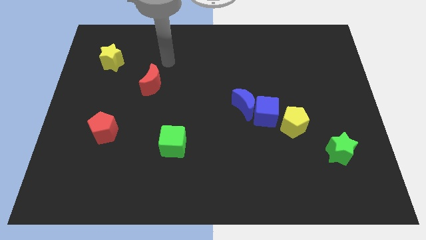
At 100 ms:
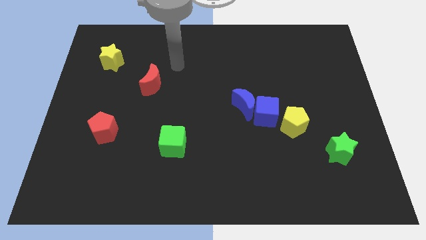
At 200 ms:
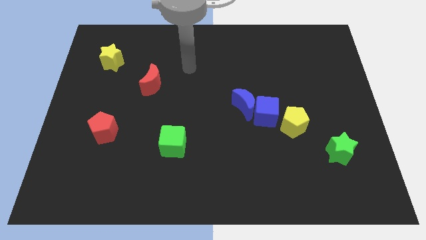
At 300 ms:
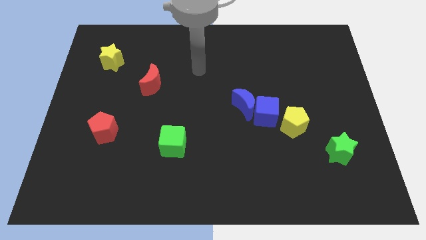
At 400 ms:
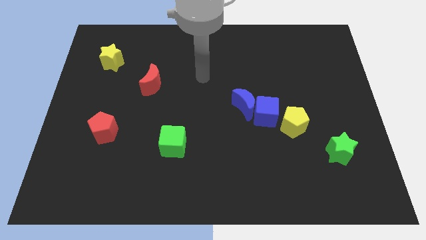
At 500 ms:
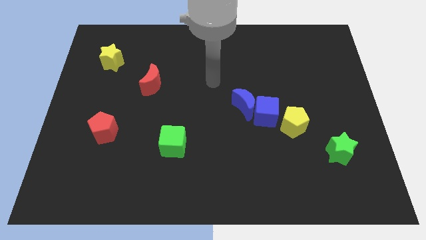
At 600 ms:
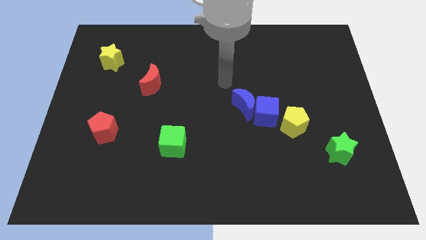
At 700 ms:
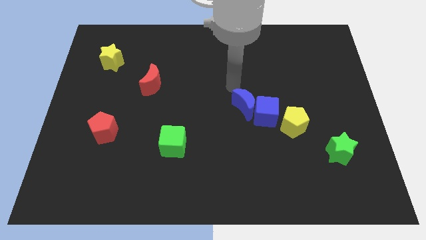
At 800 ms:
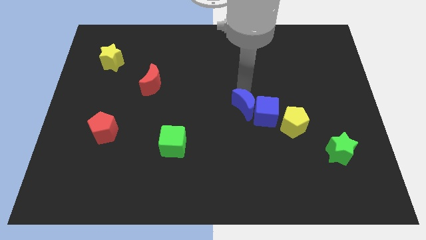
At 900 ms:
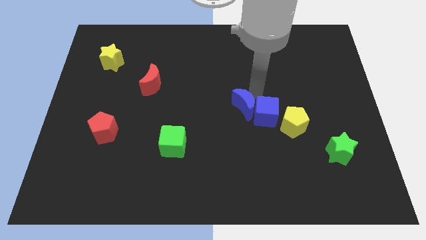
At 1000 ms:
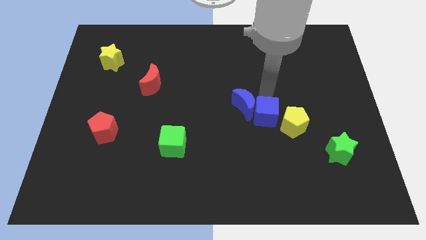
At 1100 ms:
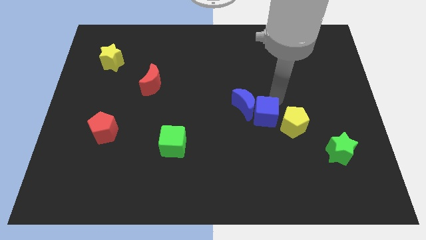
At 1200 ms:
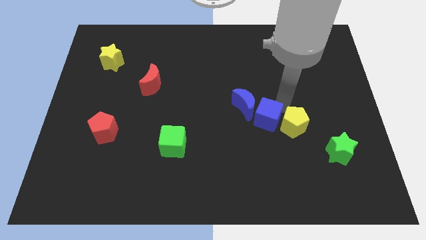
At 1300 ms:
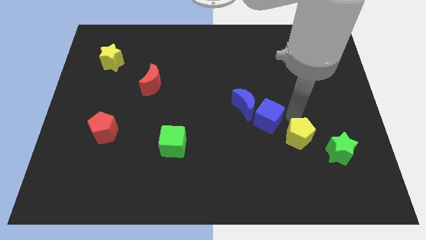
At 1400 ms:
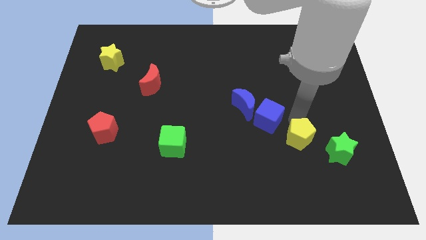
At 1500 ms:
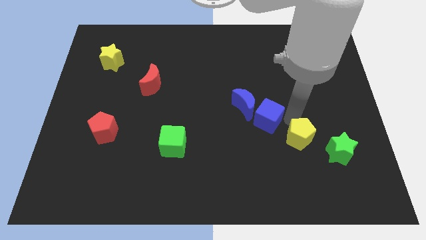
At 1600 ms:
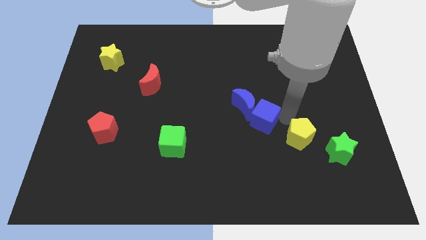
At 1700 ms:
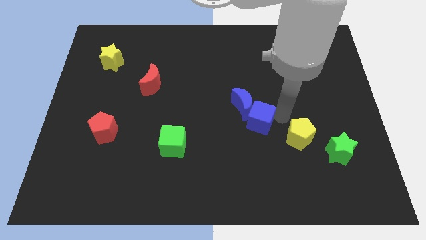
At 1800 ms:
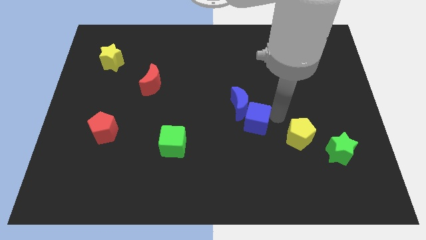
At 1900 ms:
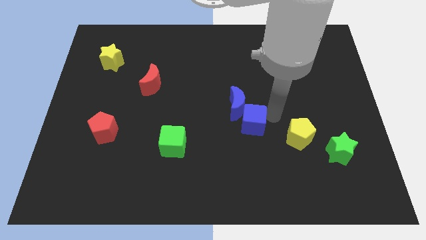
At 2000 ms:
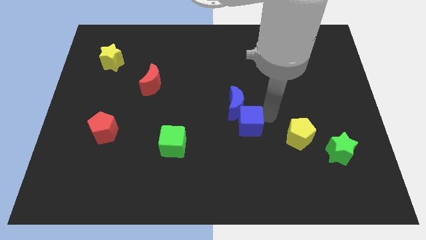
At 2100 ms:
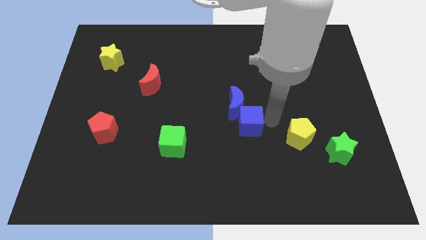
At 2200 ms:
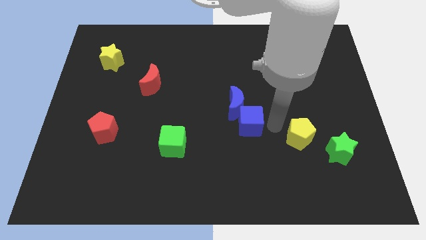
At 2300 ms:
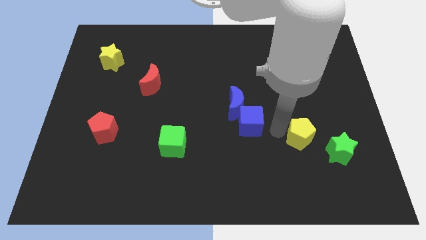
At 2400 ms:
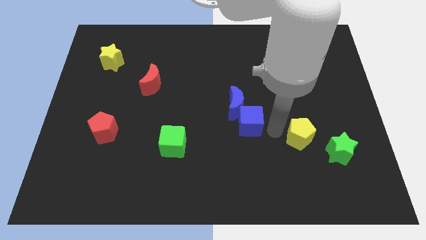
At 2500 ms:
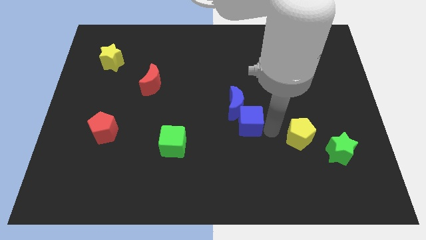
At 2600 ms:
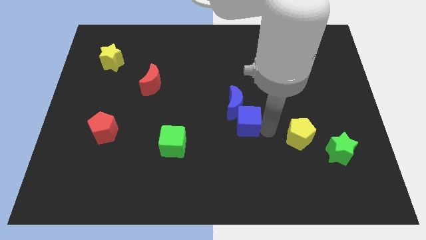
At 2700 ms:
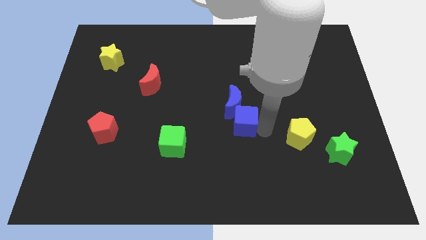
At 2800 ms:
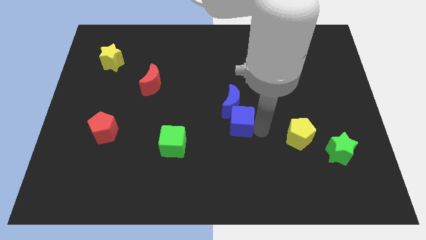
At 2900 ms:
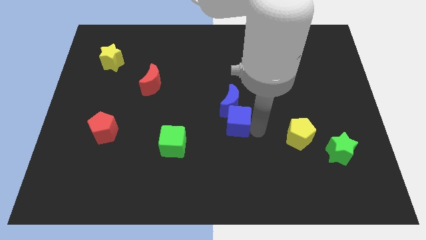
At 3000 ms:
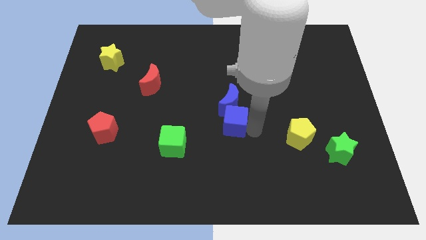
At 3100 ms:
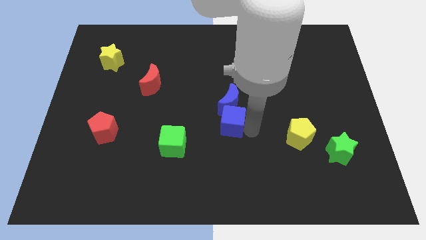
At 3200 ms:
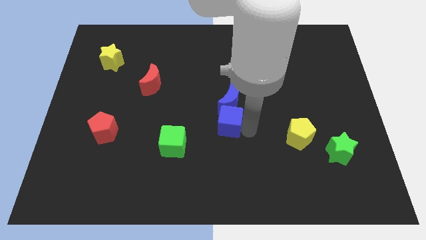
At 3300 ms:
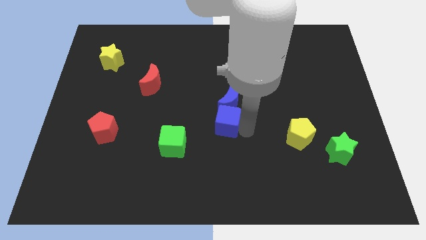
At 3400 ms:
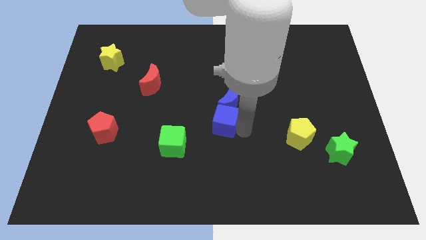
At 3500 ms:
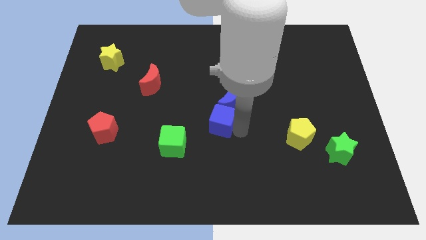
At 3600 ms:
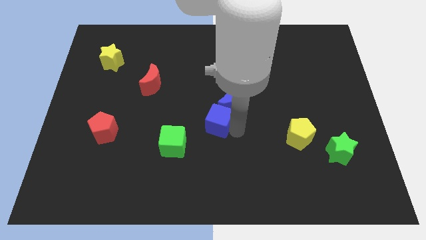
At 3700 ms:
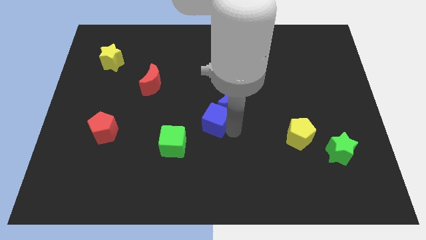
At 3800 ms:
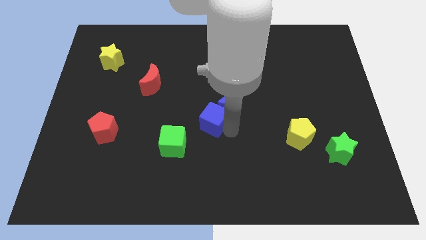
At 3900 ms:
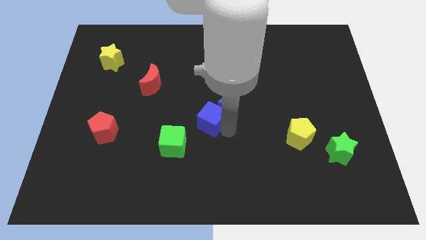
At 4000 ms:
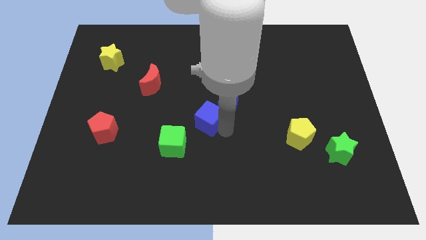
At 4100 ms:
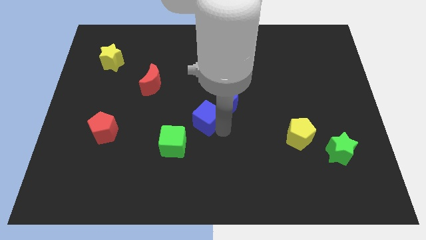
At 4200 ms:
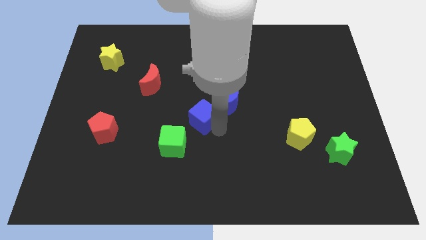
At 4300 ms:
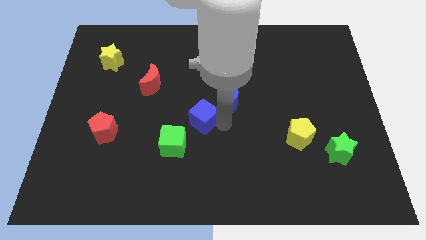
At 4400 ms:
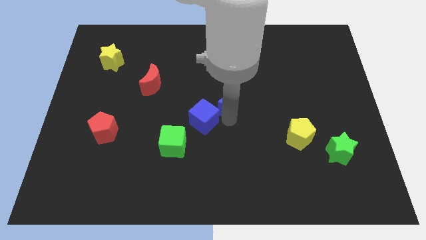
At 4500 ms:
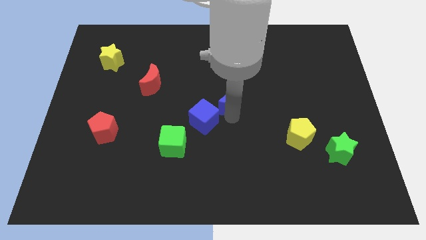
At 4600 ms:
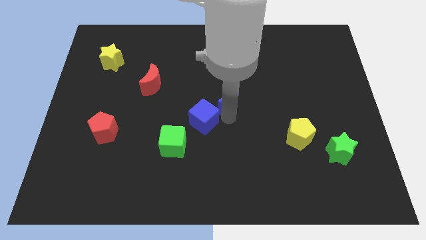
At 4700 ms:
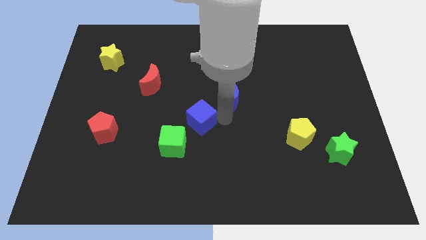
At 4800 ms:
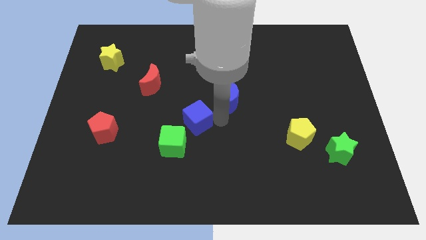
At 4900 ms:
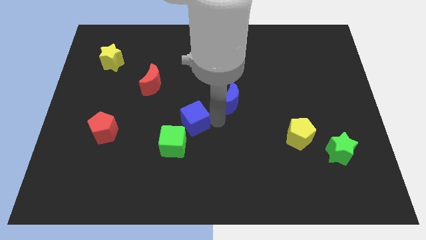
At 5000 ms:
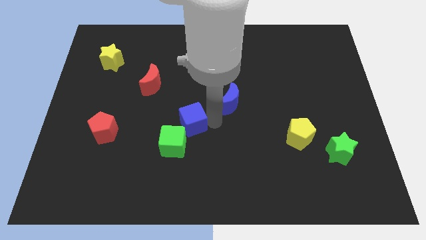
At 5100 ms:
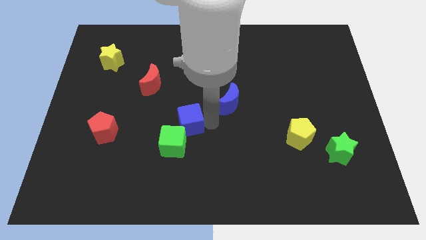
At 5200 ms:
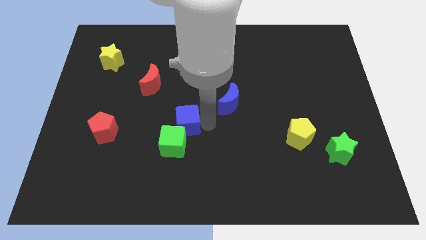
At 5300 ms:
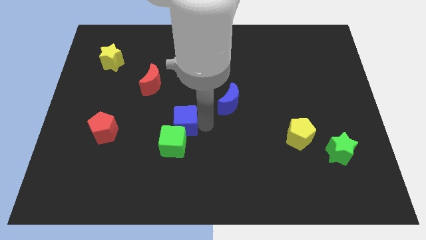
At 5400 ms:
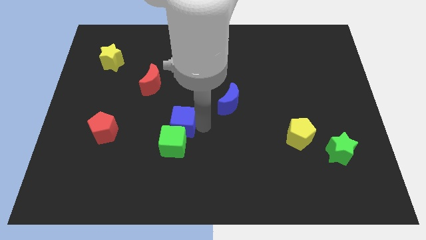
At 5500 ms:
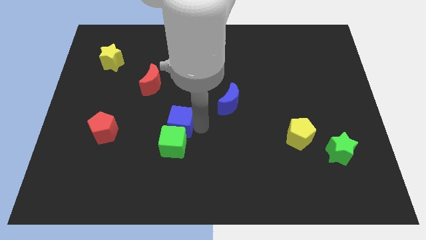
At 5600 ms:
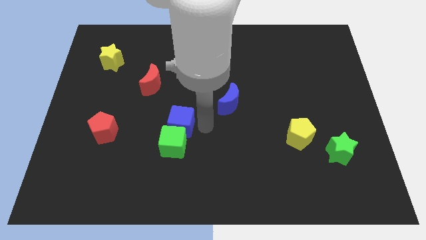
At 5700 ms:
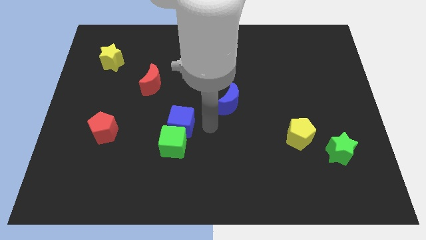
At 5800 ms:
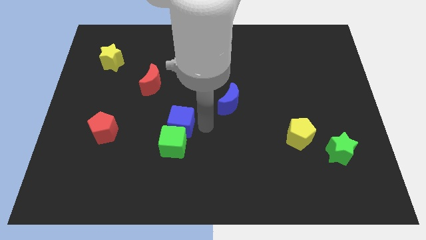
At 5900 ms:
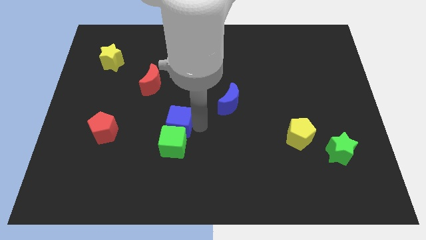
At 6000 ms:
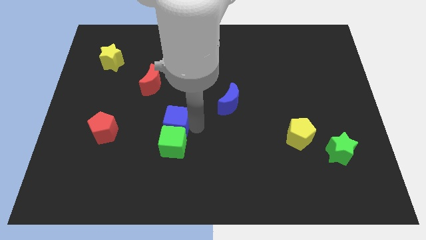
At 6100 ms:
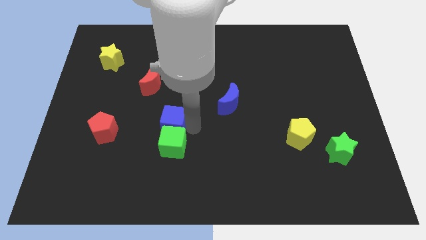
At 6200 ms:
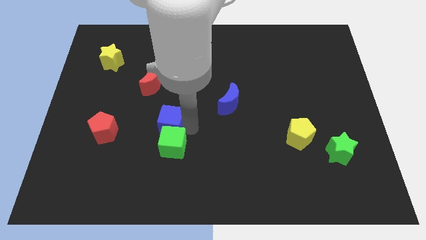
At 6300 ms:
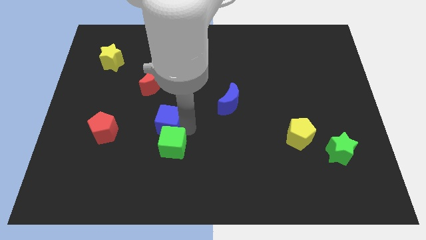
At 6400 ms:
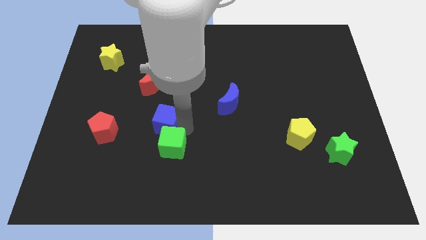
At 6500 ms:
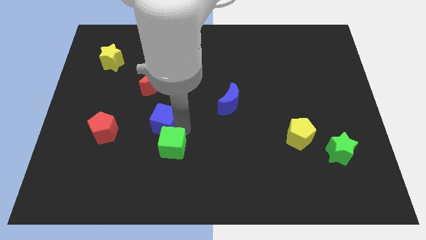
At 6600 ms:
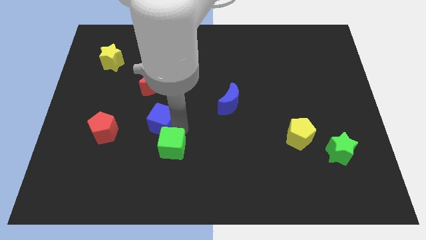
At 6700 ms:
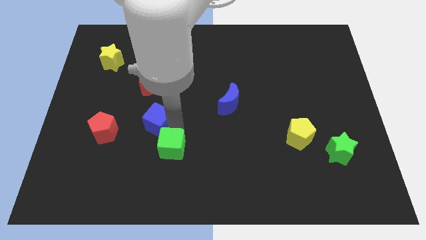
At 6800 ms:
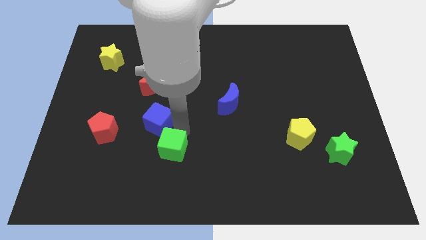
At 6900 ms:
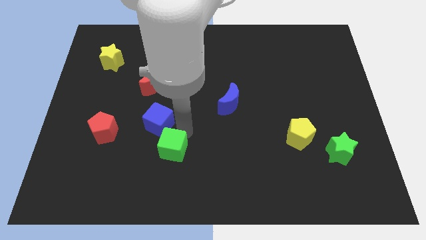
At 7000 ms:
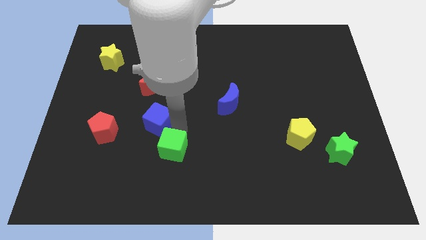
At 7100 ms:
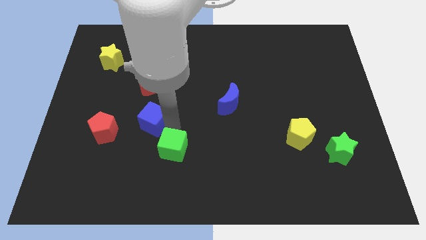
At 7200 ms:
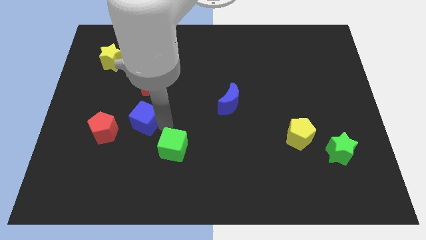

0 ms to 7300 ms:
move the blue cube to the top right side of the red pentagon
